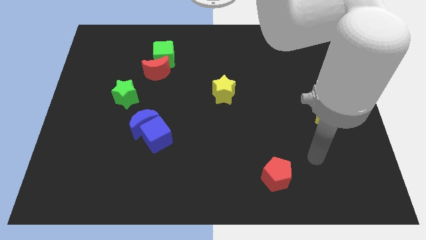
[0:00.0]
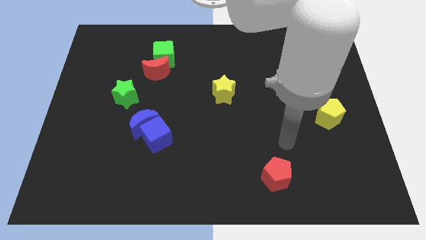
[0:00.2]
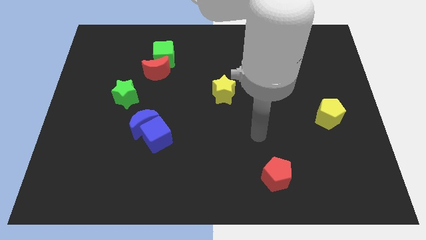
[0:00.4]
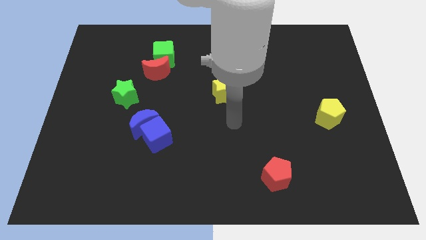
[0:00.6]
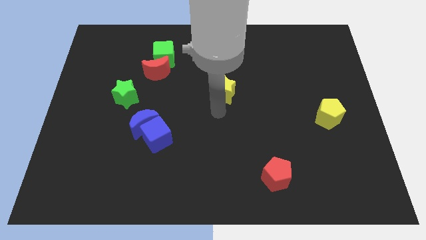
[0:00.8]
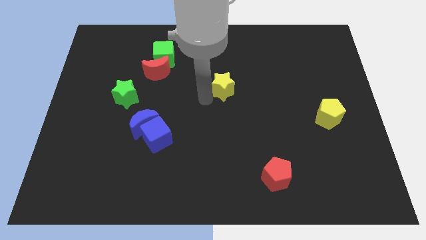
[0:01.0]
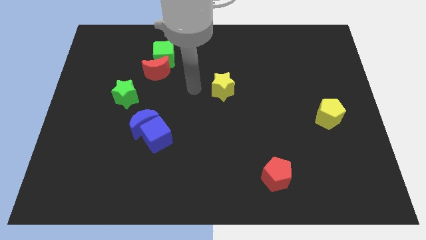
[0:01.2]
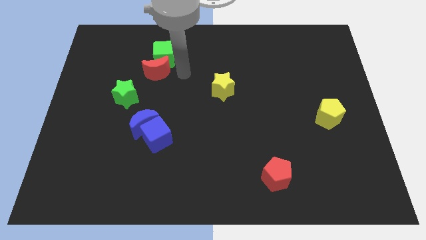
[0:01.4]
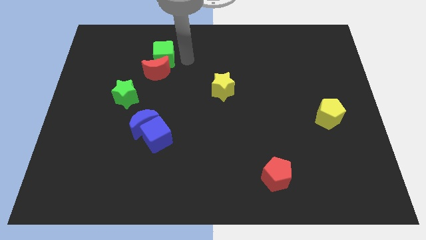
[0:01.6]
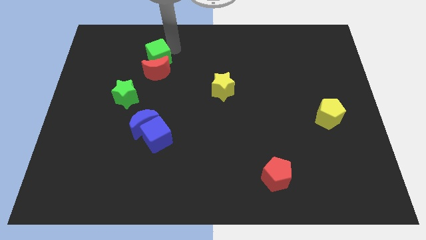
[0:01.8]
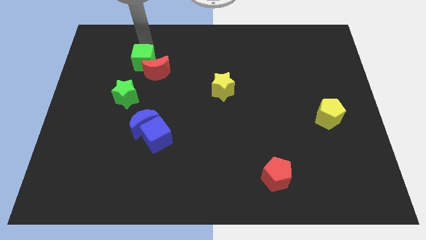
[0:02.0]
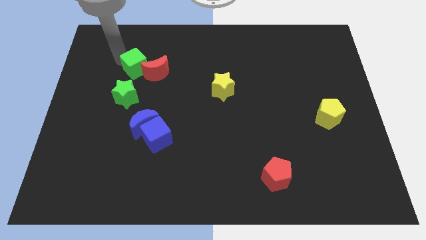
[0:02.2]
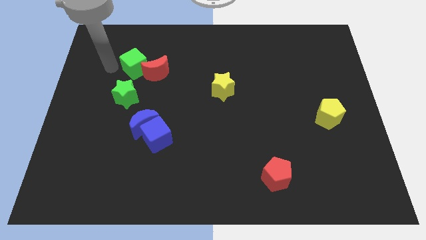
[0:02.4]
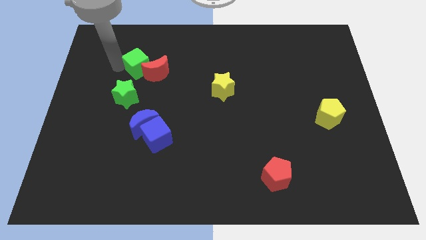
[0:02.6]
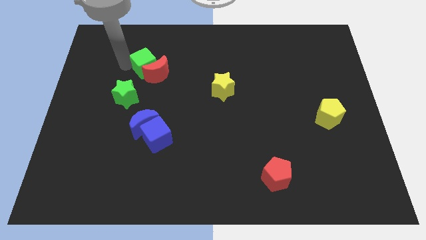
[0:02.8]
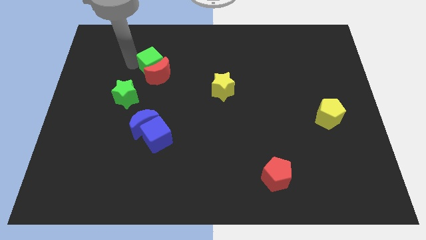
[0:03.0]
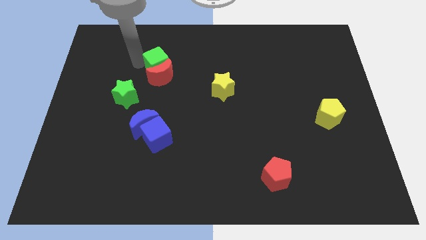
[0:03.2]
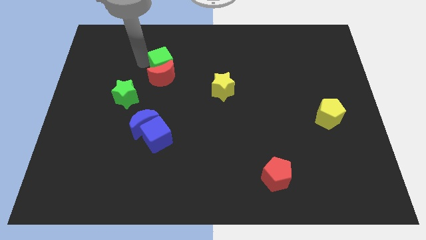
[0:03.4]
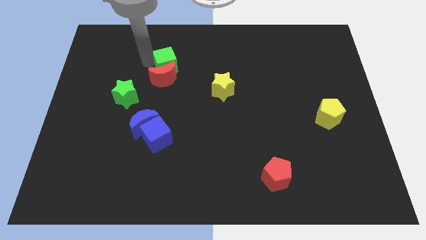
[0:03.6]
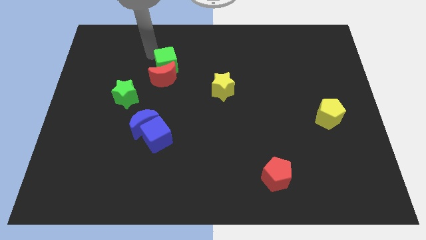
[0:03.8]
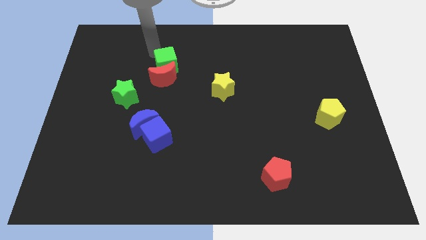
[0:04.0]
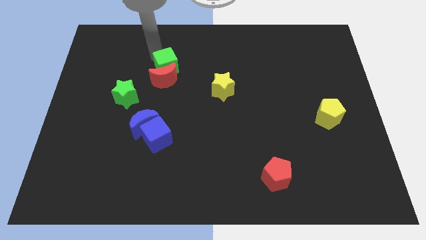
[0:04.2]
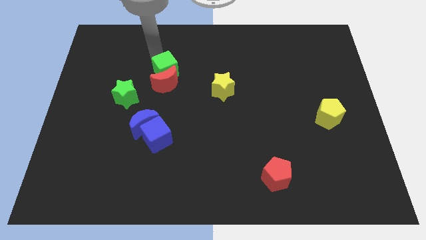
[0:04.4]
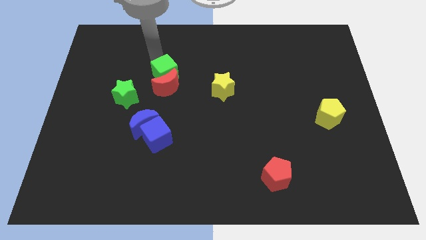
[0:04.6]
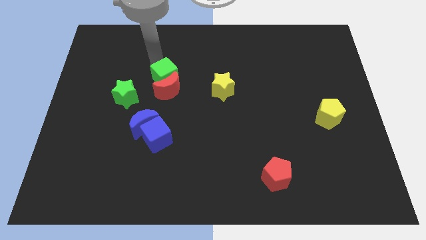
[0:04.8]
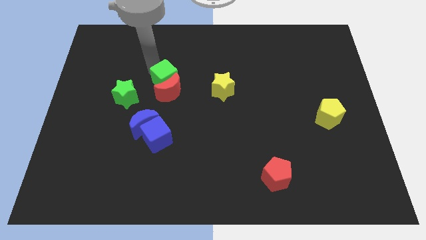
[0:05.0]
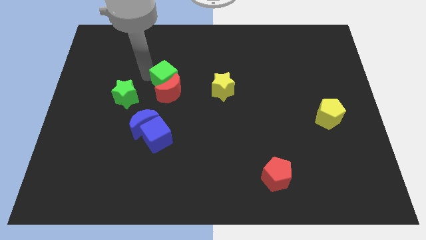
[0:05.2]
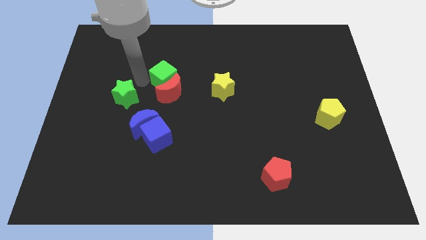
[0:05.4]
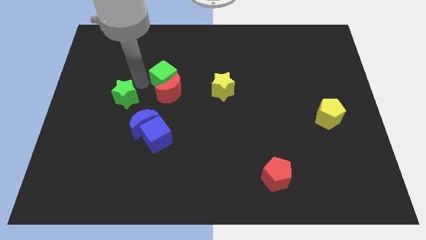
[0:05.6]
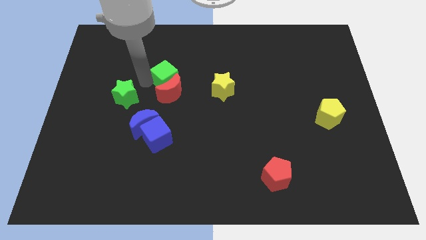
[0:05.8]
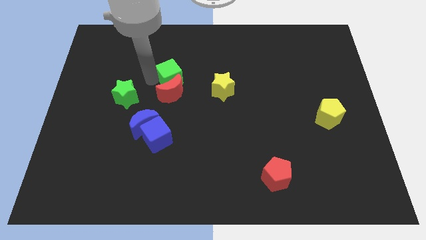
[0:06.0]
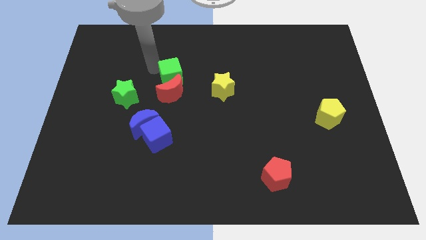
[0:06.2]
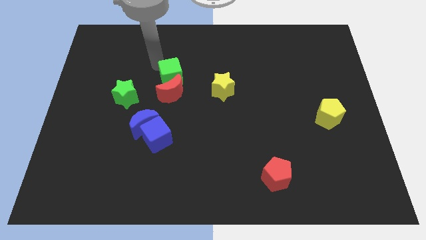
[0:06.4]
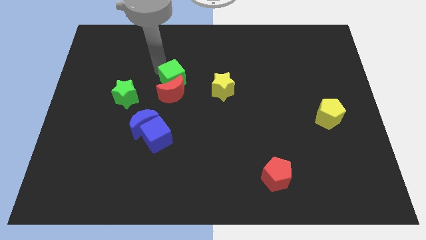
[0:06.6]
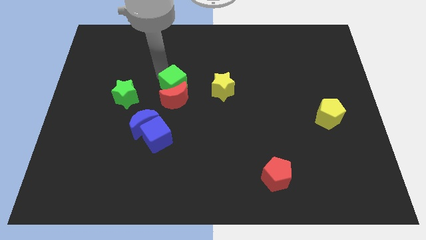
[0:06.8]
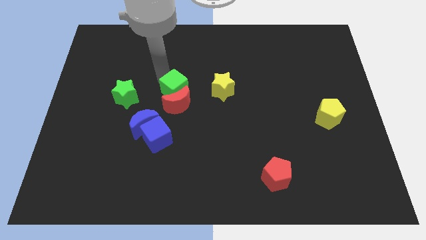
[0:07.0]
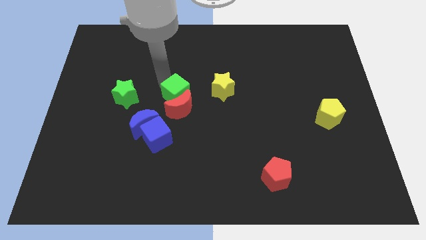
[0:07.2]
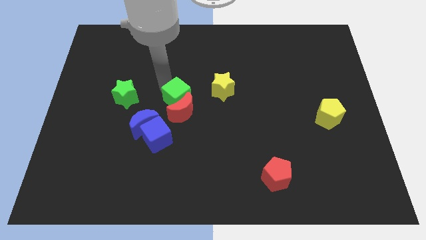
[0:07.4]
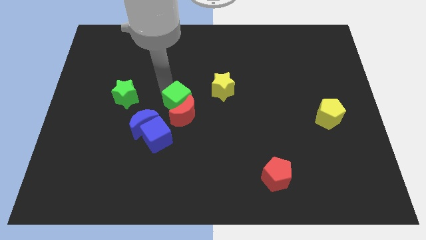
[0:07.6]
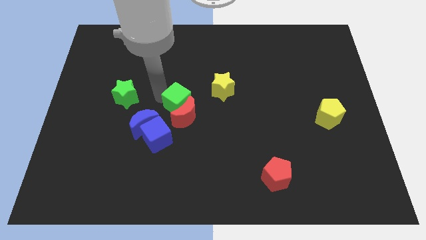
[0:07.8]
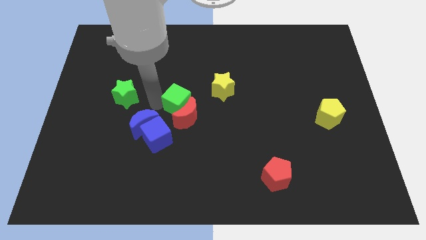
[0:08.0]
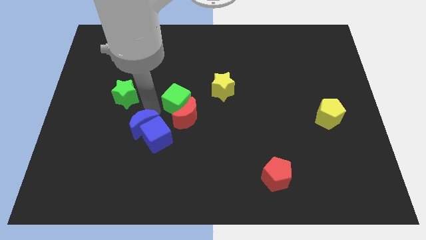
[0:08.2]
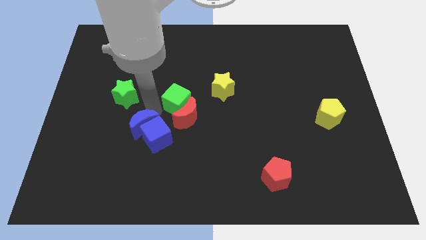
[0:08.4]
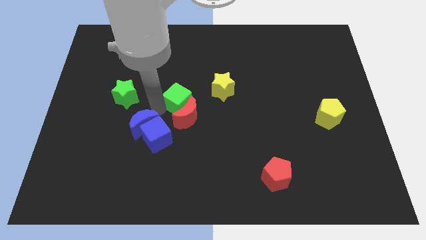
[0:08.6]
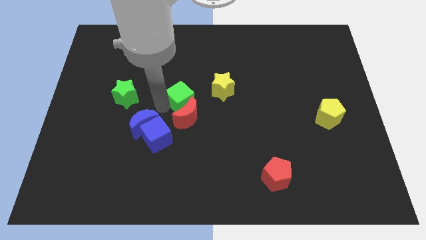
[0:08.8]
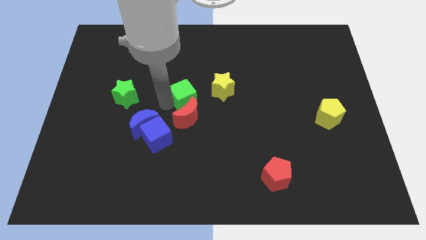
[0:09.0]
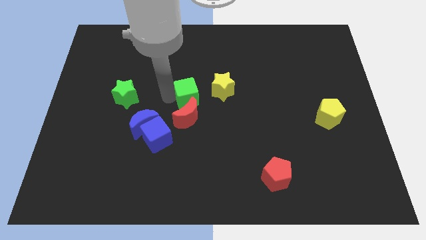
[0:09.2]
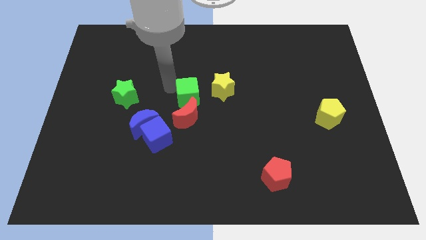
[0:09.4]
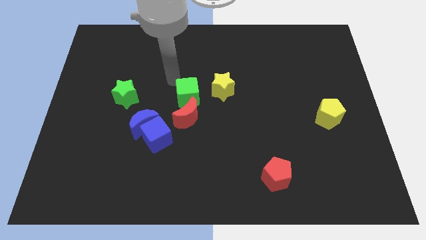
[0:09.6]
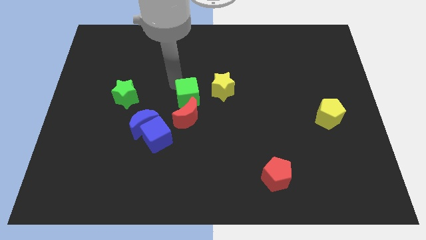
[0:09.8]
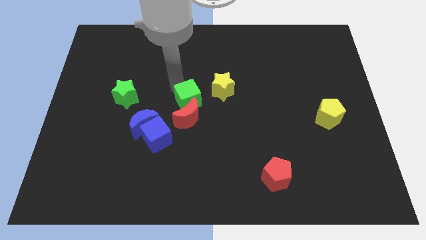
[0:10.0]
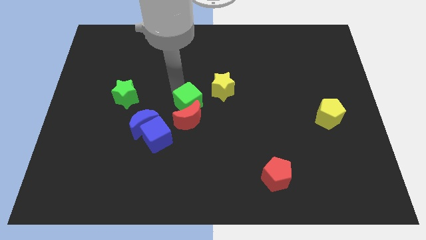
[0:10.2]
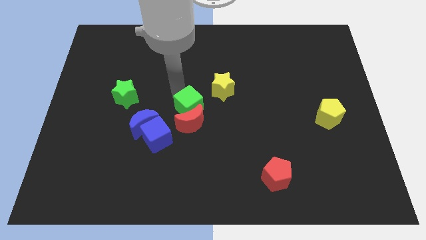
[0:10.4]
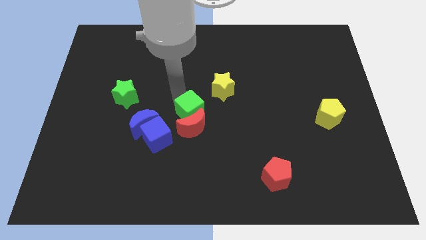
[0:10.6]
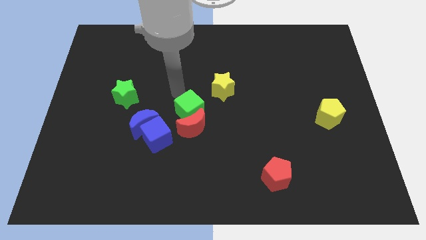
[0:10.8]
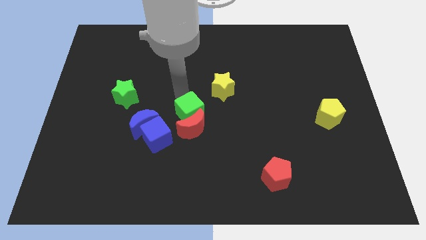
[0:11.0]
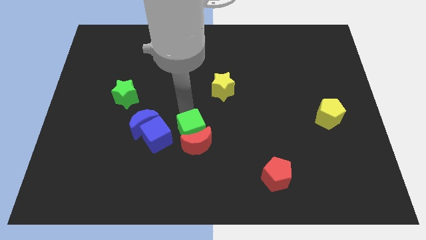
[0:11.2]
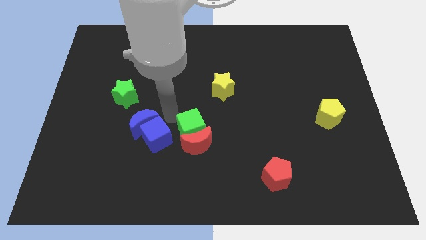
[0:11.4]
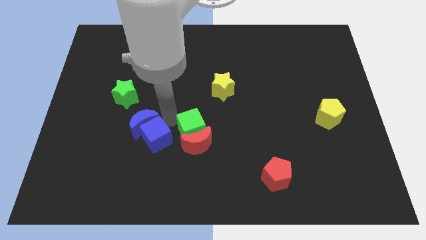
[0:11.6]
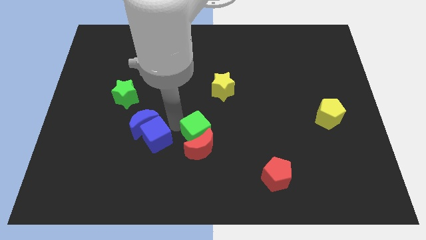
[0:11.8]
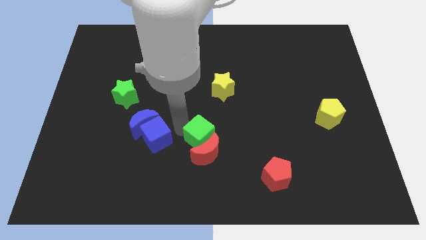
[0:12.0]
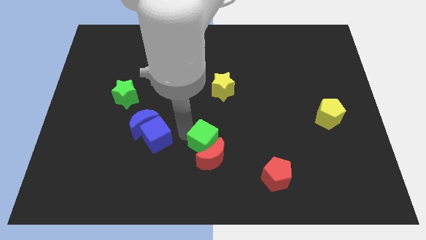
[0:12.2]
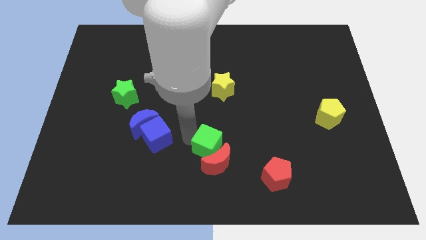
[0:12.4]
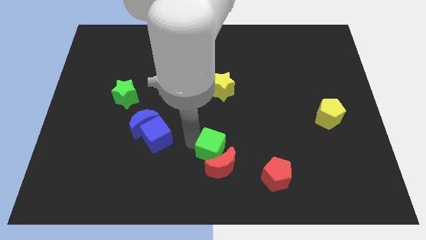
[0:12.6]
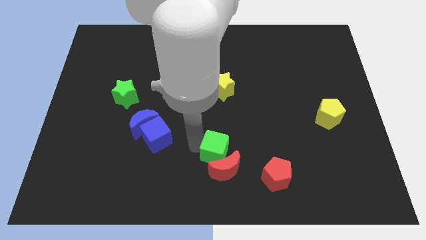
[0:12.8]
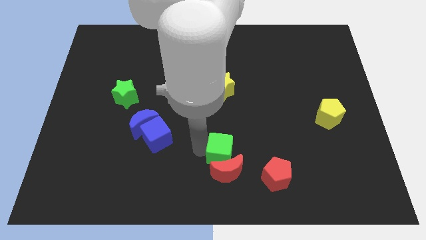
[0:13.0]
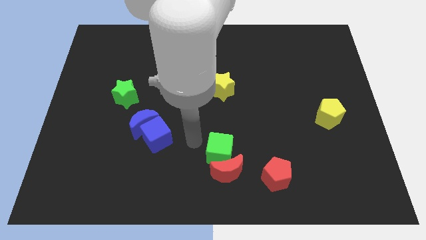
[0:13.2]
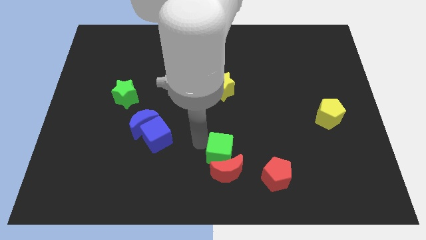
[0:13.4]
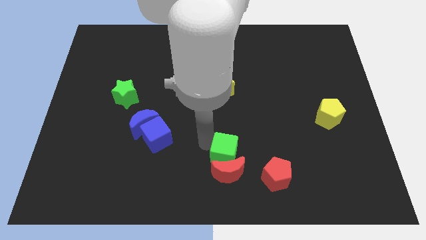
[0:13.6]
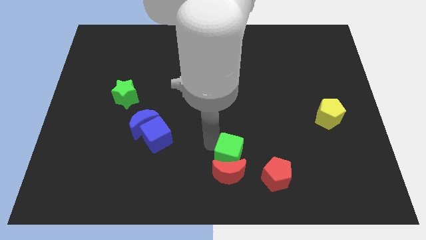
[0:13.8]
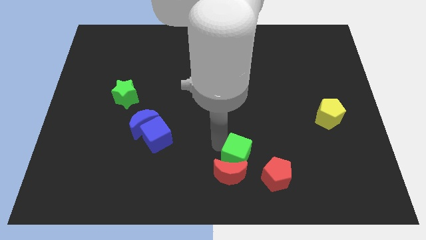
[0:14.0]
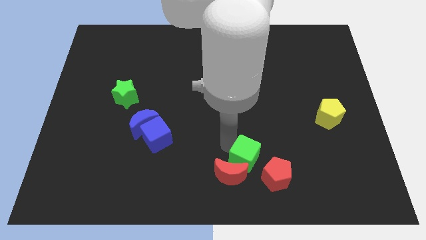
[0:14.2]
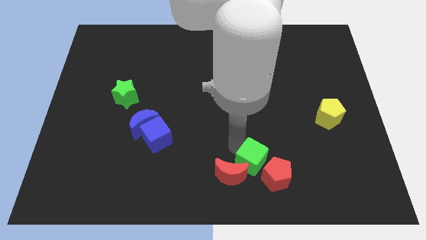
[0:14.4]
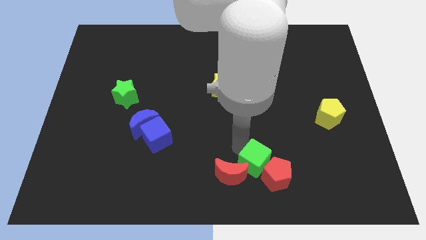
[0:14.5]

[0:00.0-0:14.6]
slide the green cube to the red pentagon
